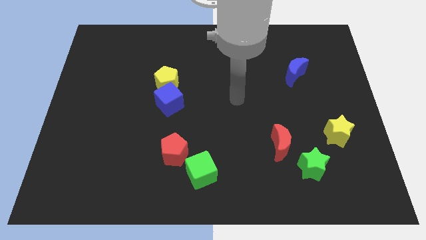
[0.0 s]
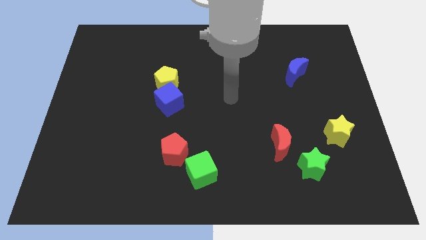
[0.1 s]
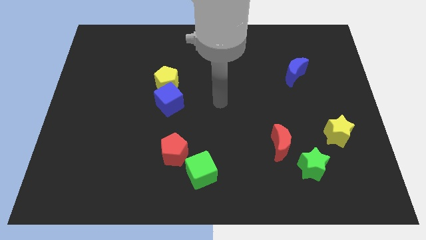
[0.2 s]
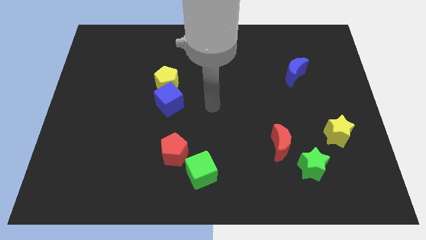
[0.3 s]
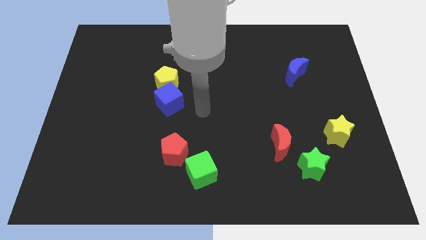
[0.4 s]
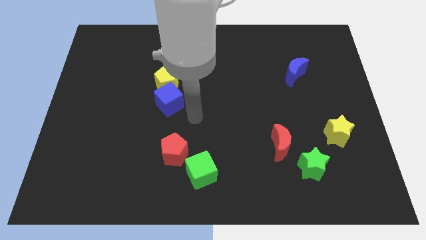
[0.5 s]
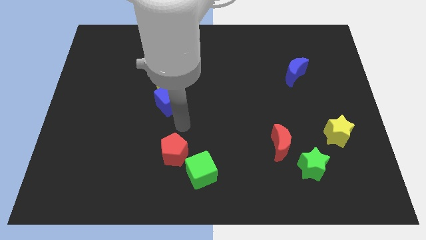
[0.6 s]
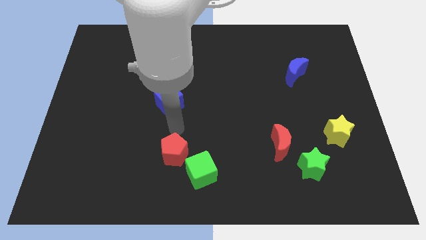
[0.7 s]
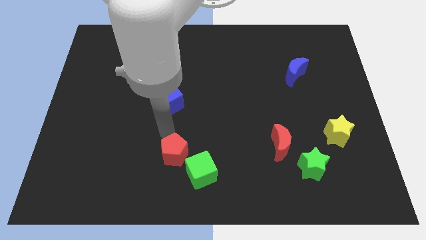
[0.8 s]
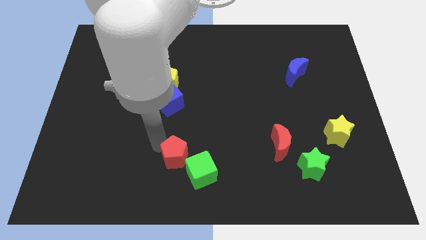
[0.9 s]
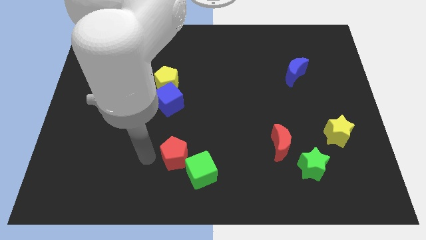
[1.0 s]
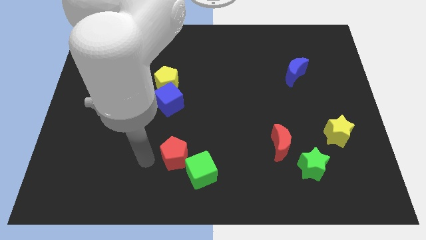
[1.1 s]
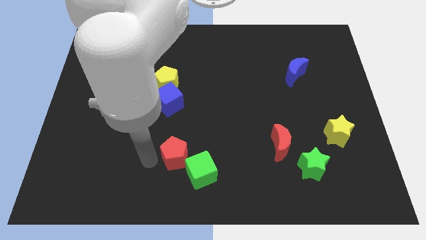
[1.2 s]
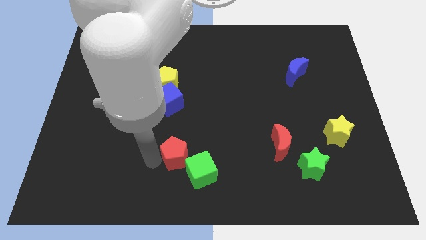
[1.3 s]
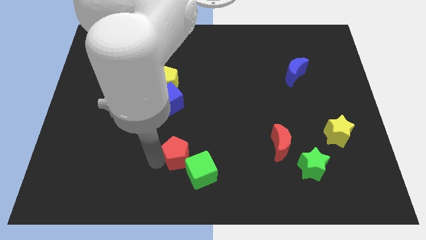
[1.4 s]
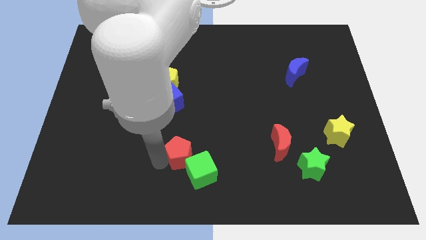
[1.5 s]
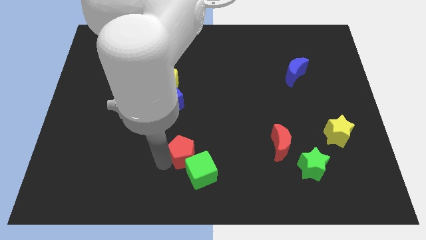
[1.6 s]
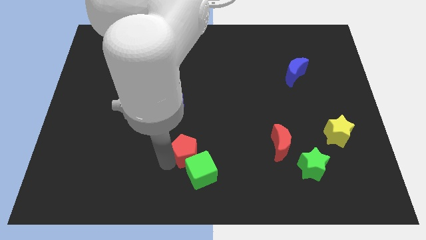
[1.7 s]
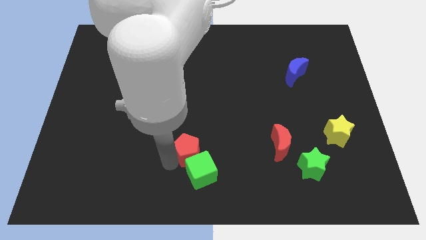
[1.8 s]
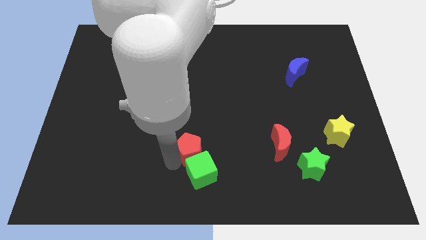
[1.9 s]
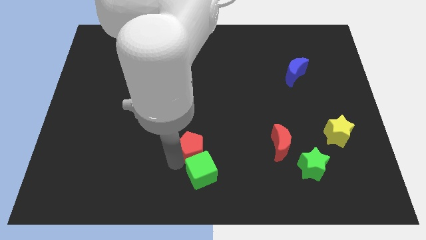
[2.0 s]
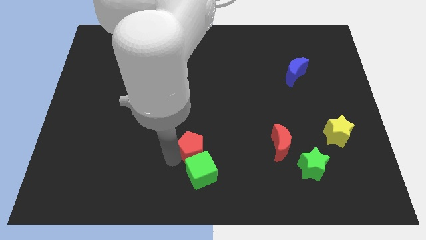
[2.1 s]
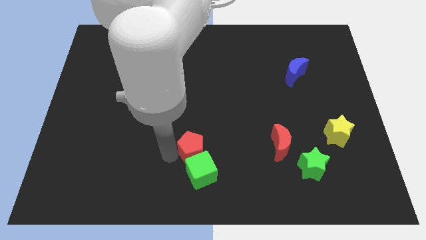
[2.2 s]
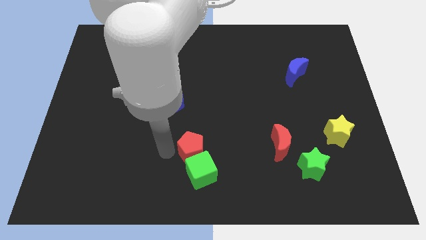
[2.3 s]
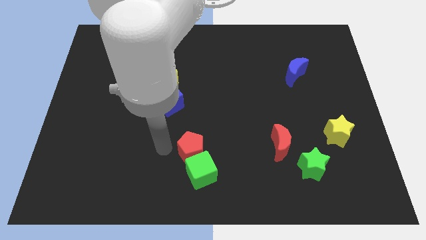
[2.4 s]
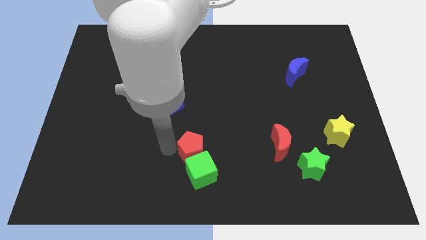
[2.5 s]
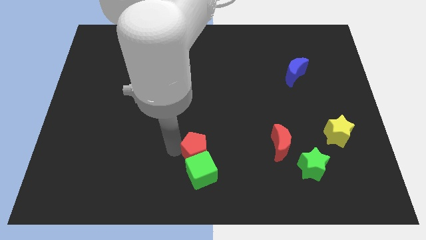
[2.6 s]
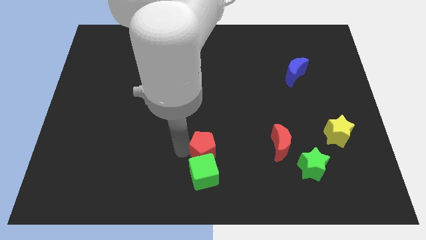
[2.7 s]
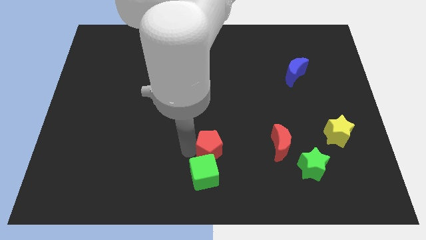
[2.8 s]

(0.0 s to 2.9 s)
push the red pentagon to the right a little bit

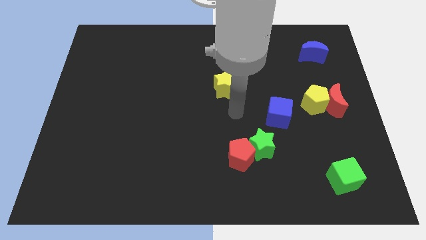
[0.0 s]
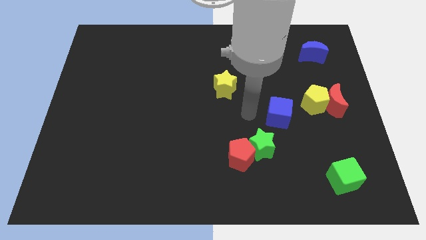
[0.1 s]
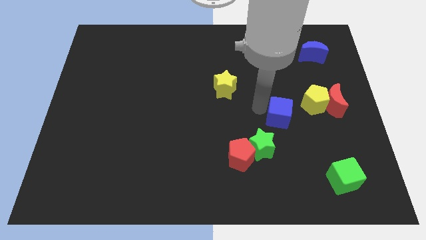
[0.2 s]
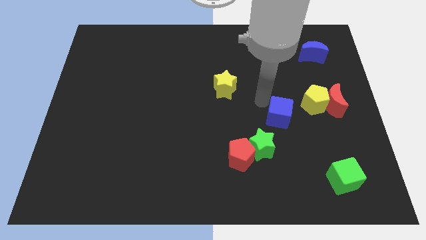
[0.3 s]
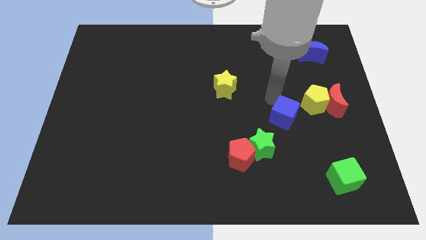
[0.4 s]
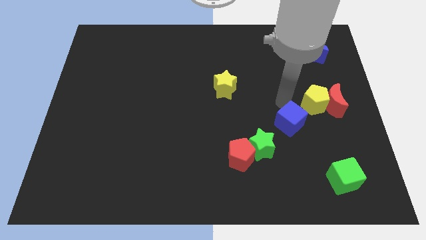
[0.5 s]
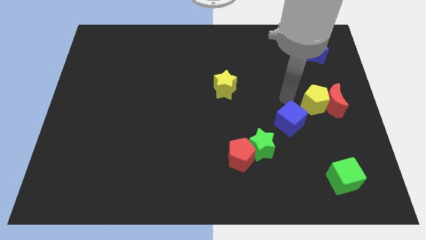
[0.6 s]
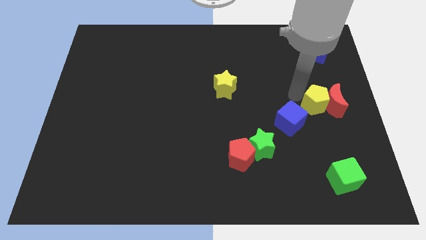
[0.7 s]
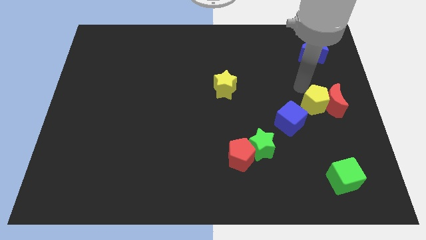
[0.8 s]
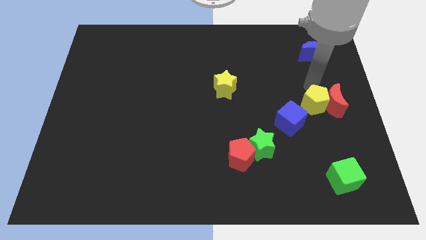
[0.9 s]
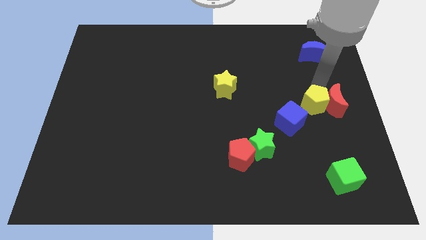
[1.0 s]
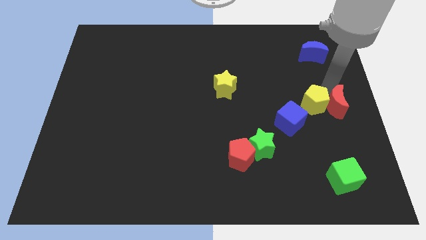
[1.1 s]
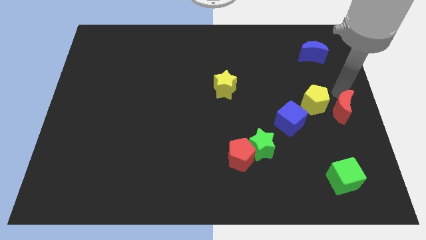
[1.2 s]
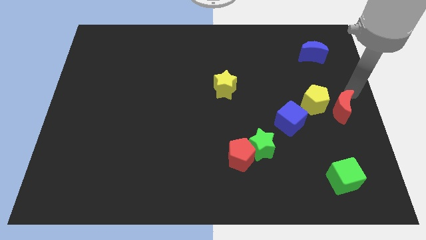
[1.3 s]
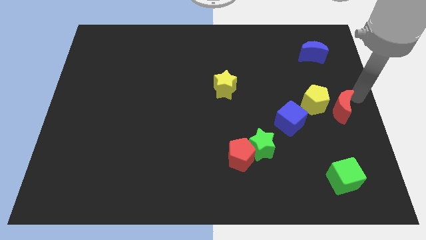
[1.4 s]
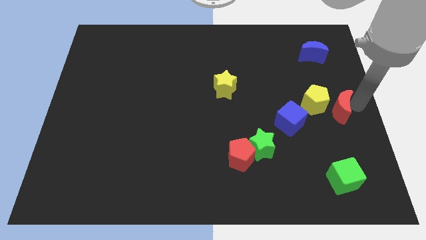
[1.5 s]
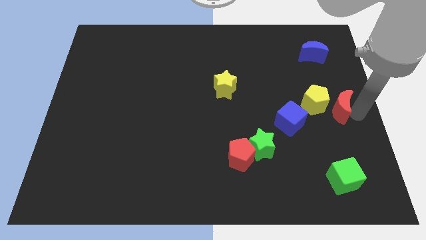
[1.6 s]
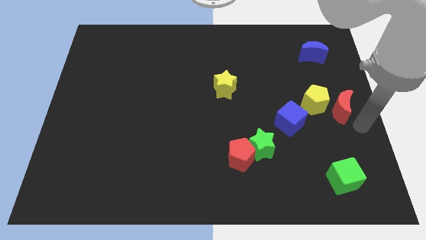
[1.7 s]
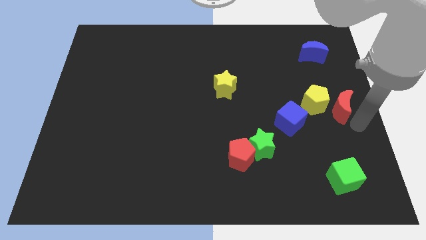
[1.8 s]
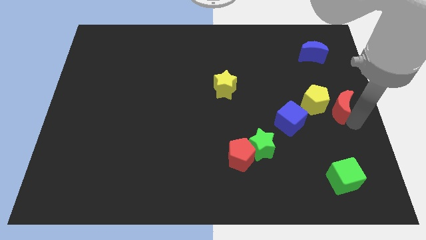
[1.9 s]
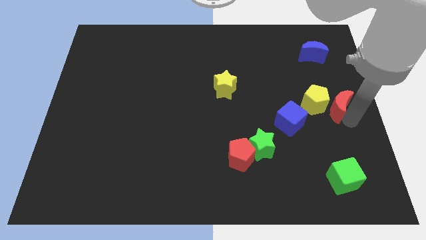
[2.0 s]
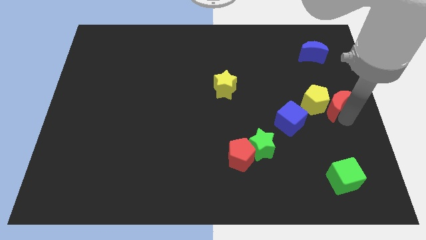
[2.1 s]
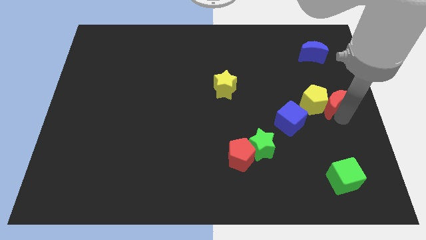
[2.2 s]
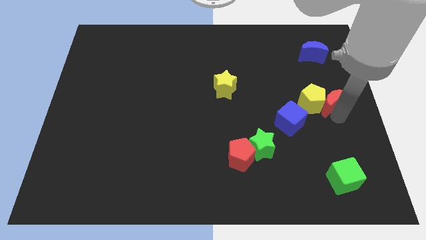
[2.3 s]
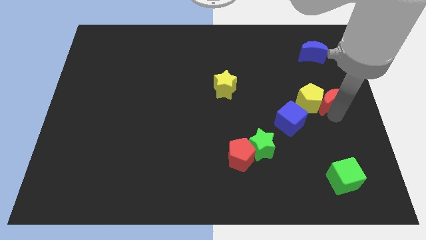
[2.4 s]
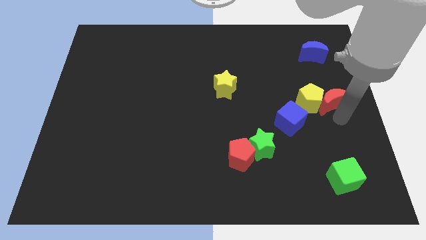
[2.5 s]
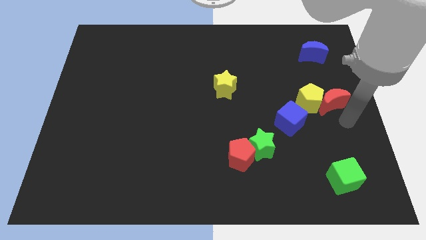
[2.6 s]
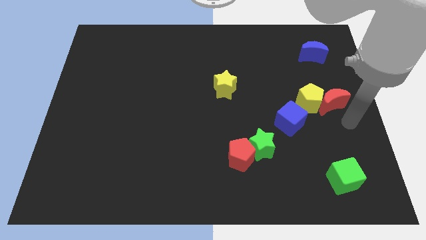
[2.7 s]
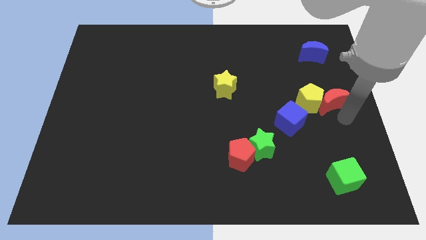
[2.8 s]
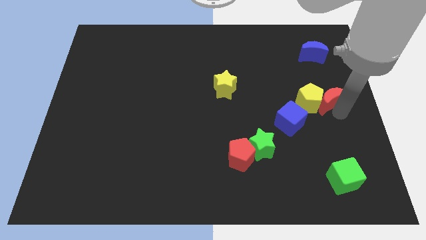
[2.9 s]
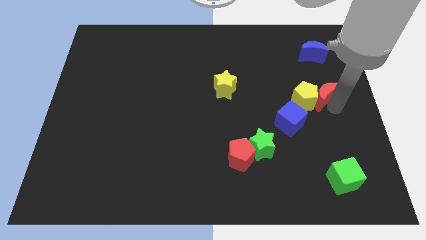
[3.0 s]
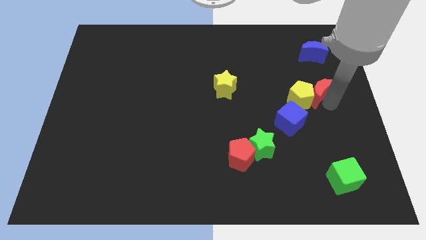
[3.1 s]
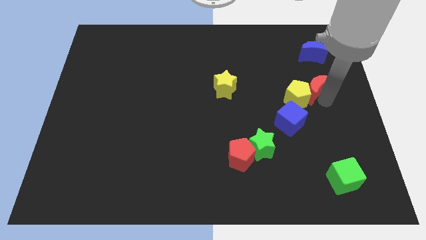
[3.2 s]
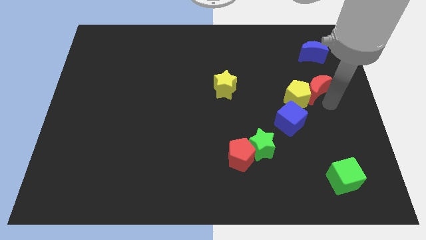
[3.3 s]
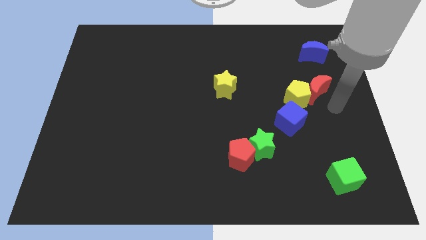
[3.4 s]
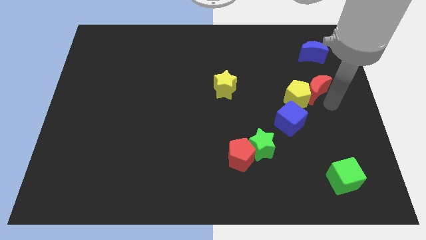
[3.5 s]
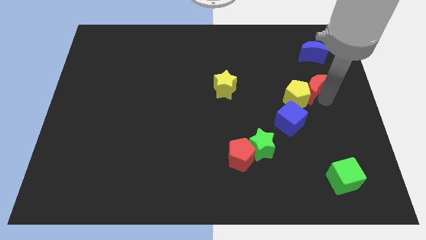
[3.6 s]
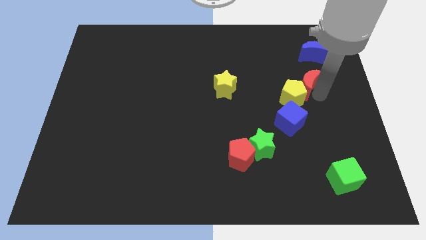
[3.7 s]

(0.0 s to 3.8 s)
push the red moon up and left somewhat

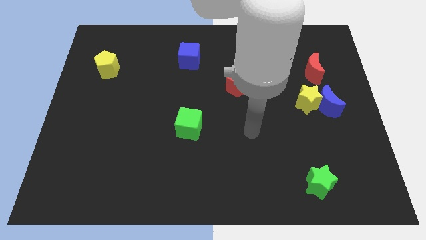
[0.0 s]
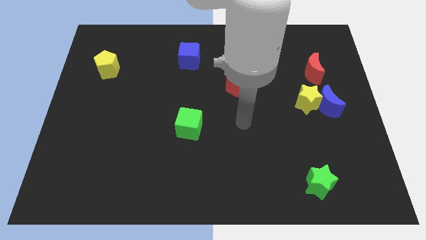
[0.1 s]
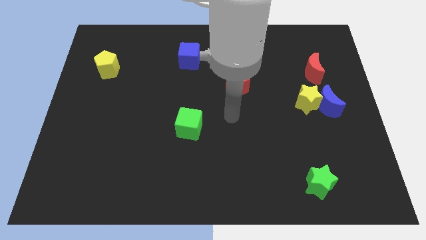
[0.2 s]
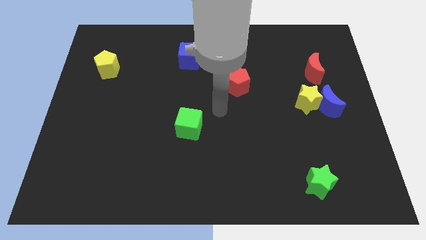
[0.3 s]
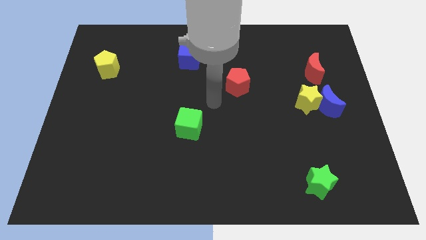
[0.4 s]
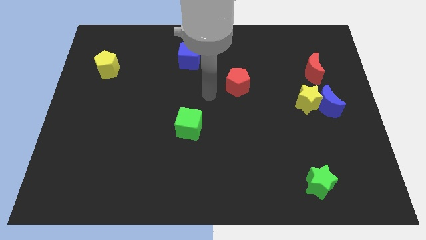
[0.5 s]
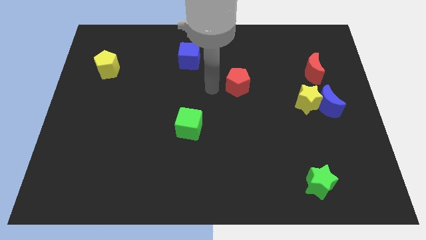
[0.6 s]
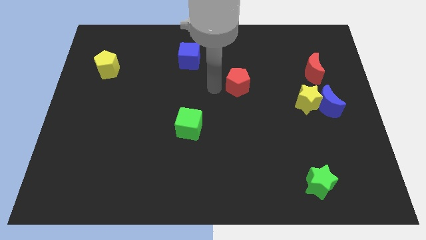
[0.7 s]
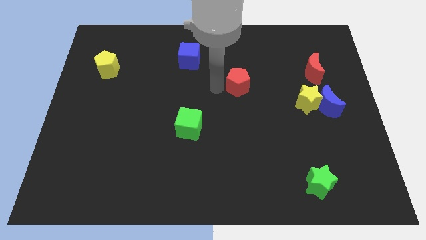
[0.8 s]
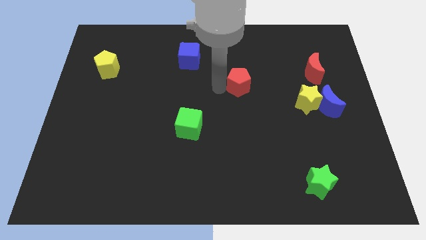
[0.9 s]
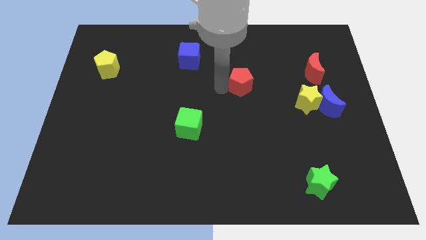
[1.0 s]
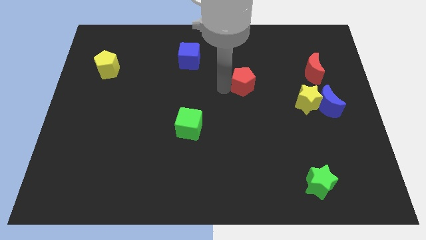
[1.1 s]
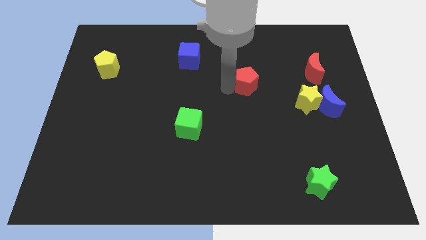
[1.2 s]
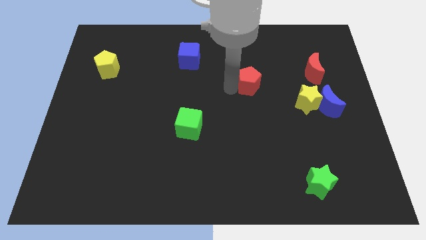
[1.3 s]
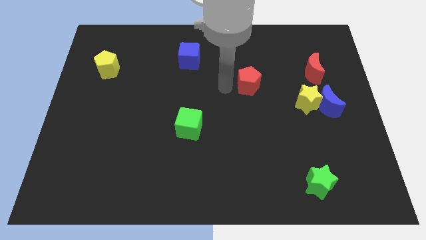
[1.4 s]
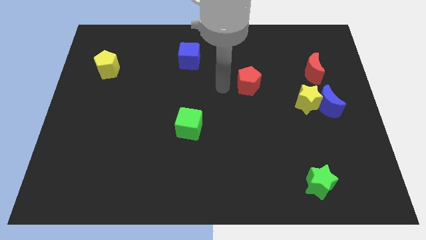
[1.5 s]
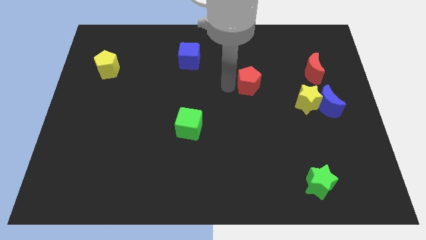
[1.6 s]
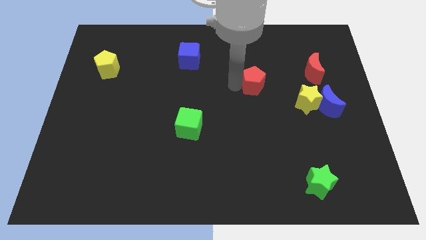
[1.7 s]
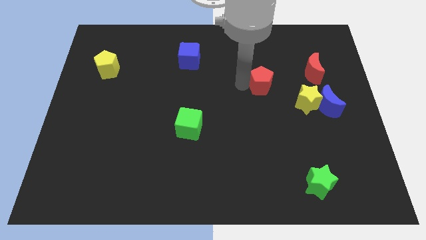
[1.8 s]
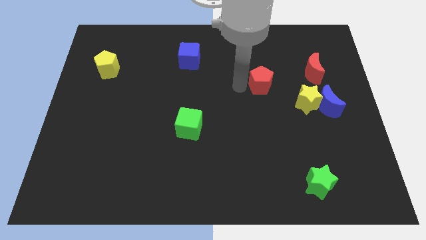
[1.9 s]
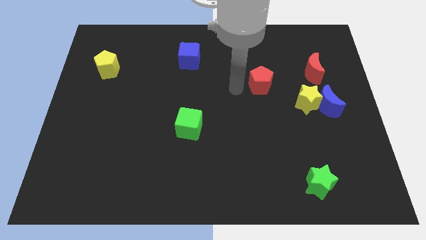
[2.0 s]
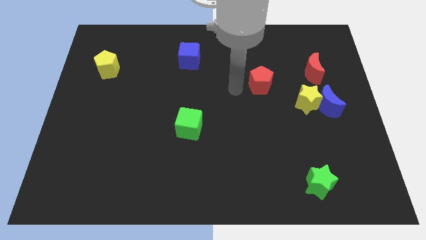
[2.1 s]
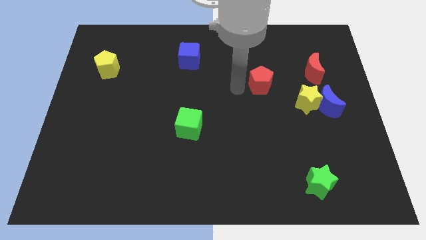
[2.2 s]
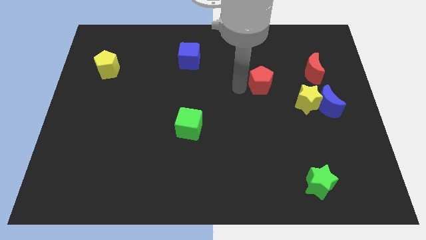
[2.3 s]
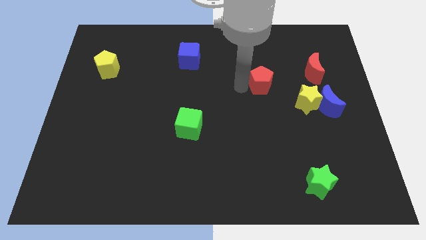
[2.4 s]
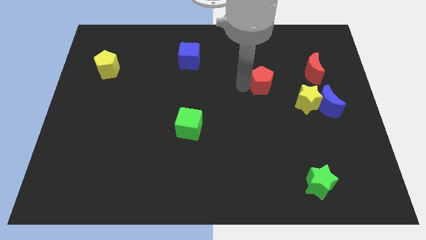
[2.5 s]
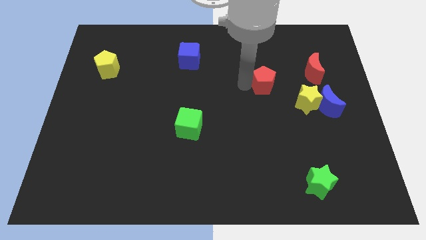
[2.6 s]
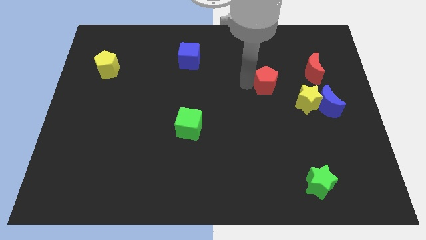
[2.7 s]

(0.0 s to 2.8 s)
slide the red pentagon right a bit
